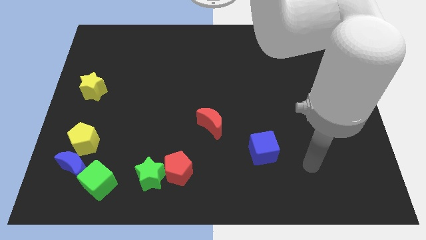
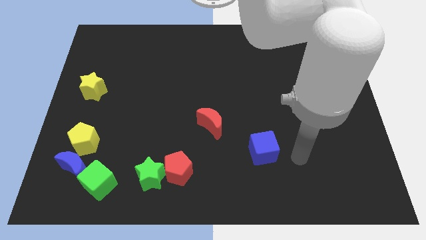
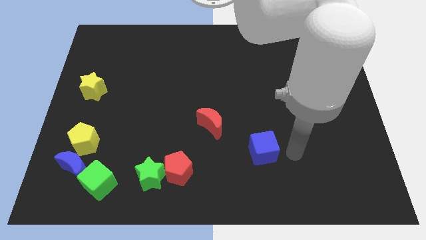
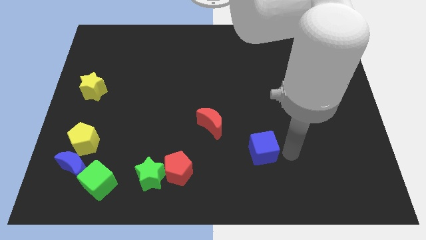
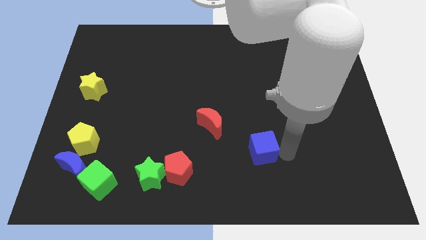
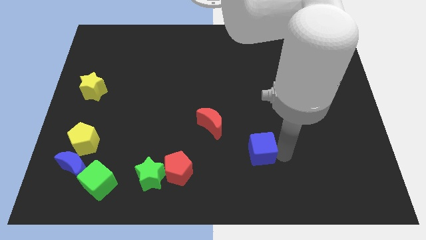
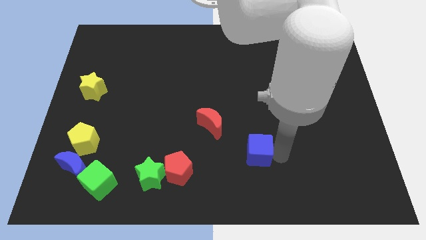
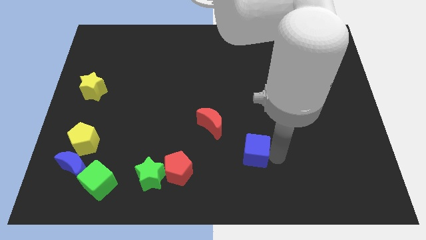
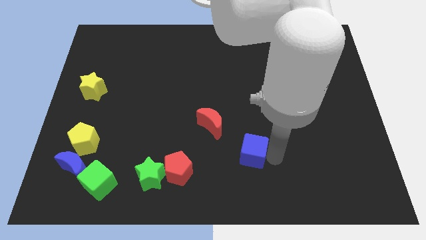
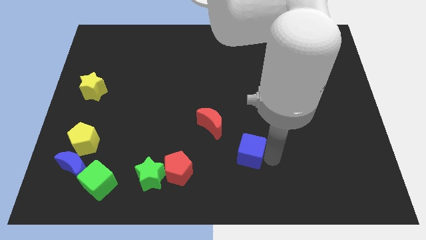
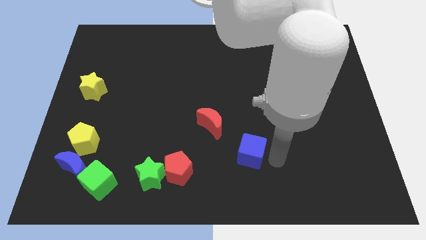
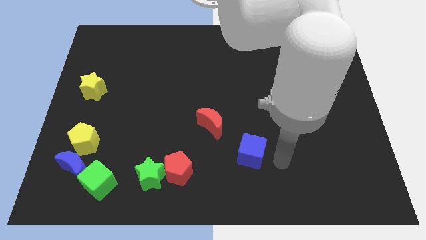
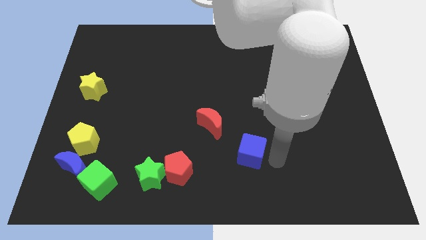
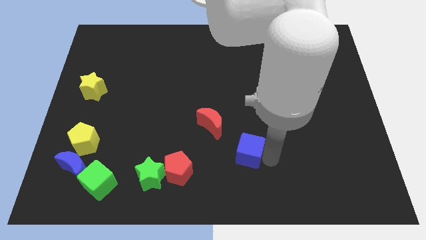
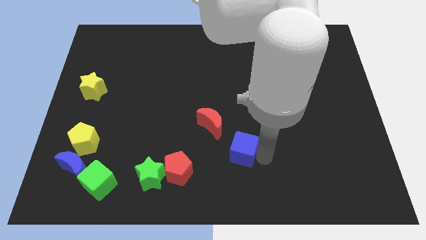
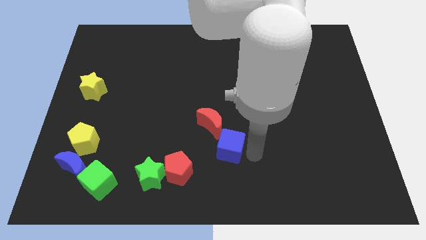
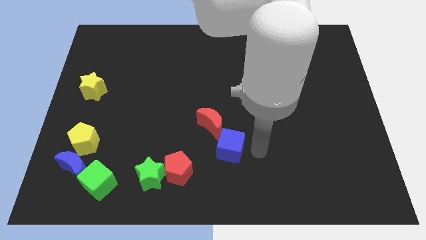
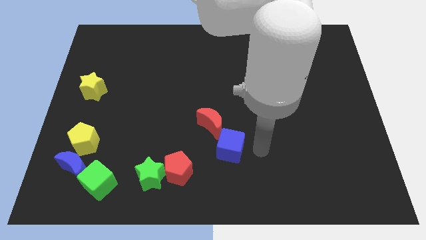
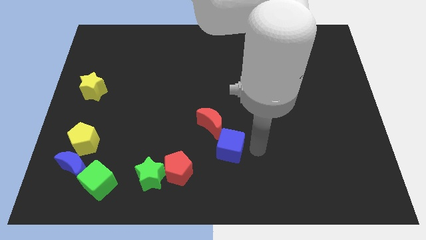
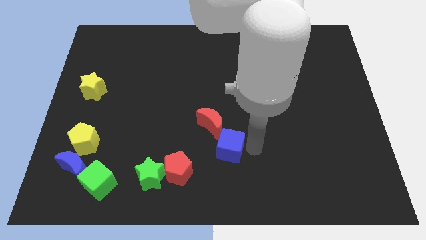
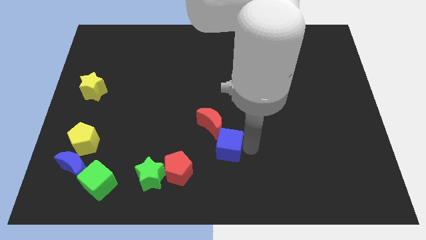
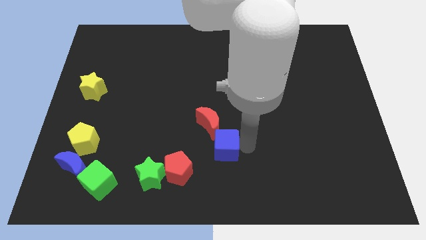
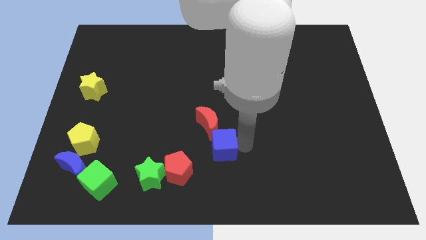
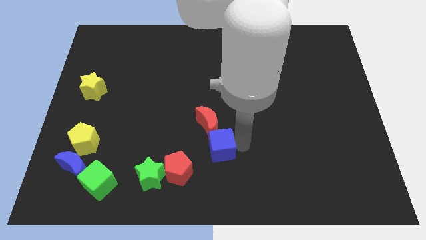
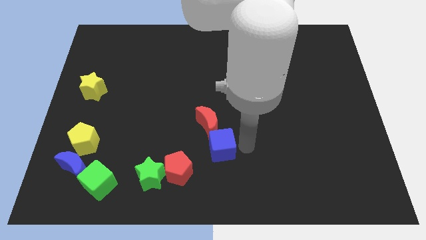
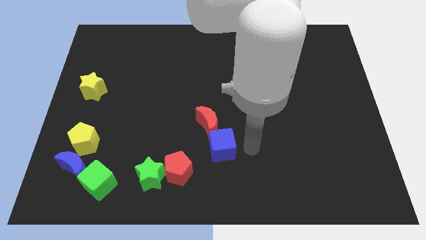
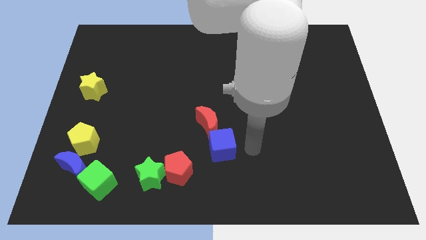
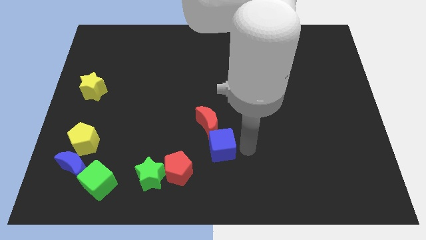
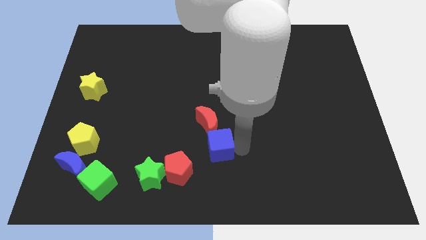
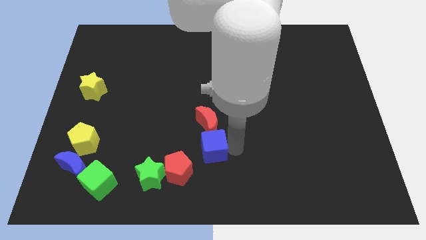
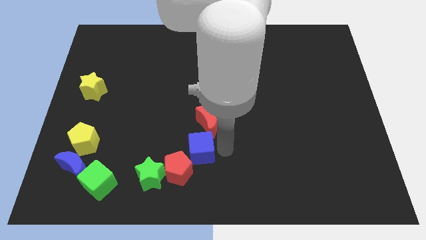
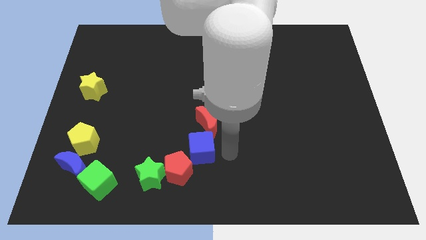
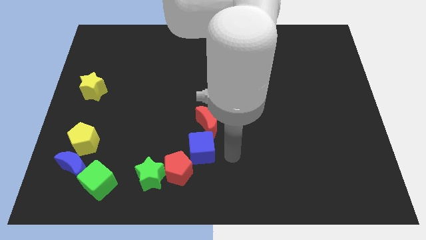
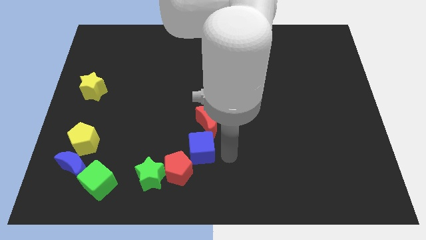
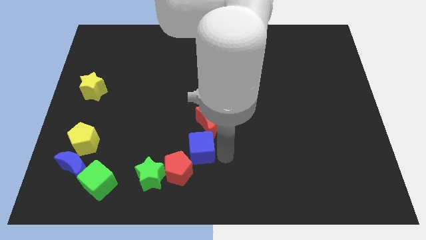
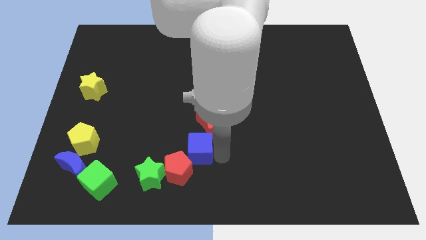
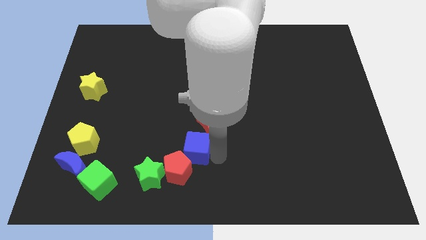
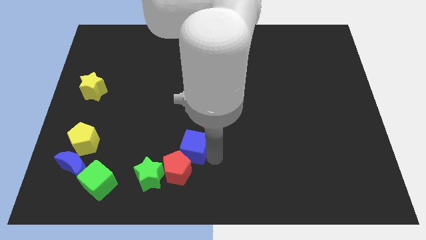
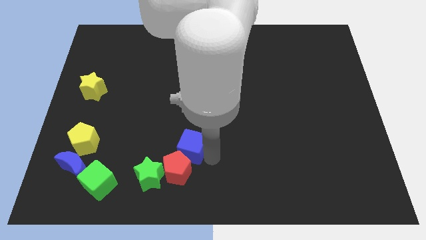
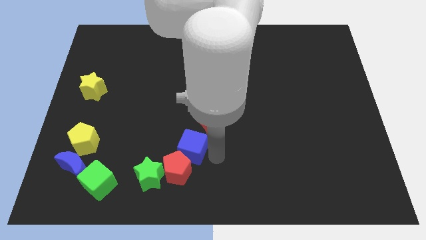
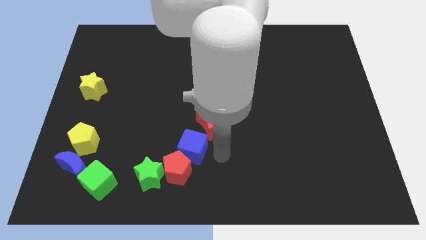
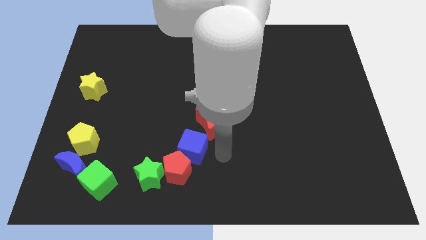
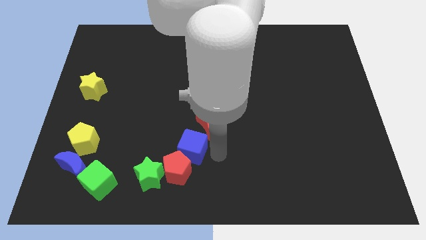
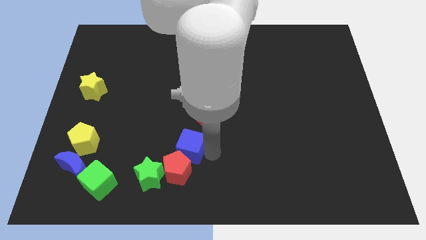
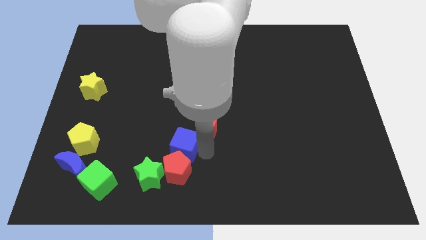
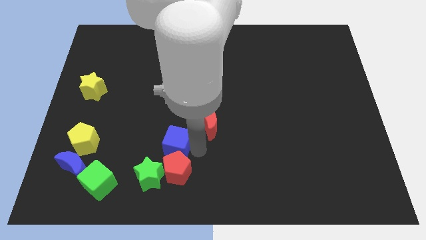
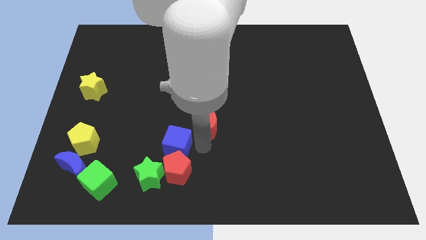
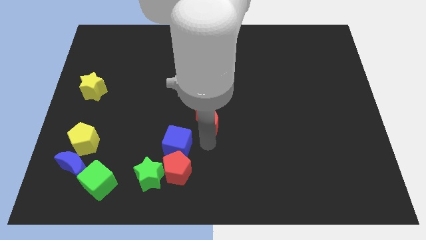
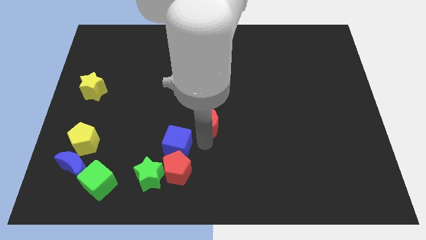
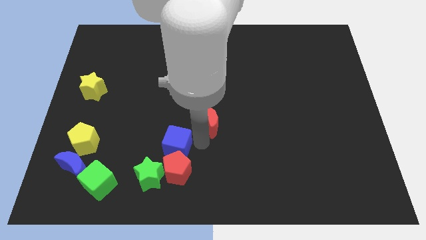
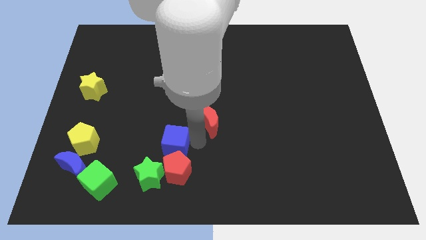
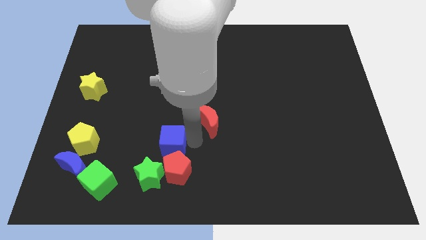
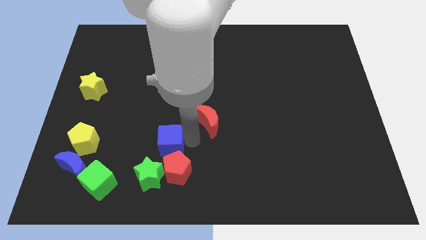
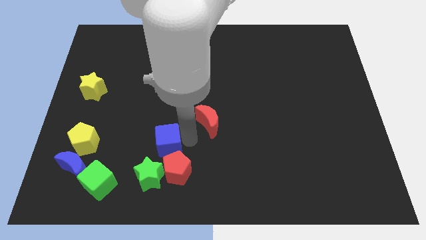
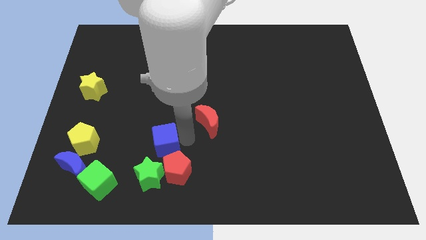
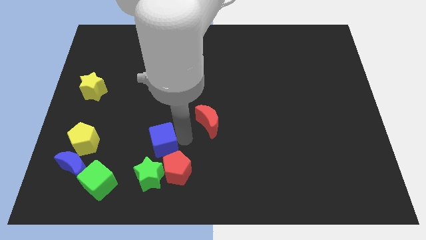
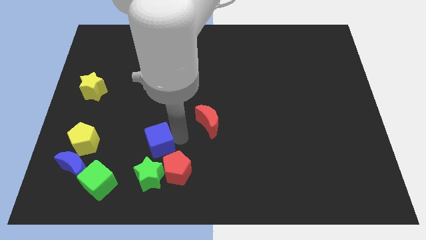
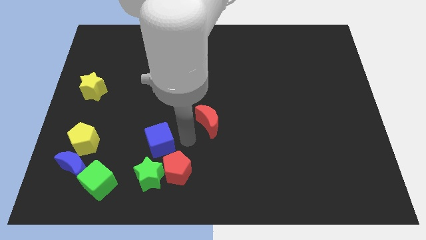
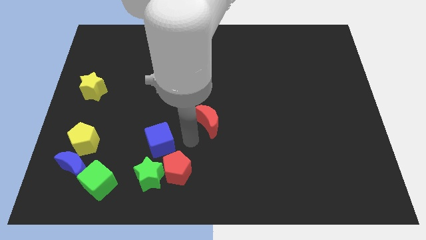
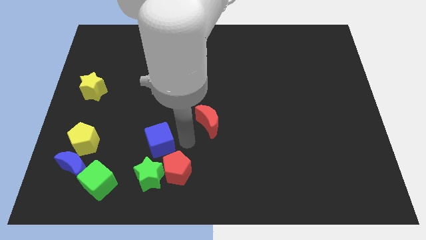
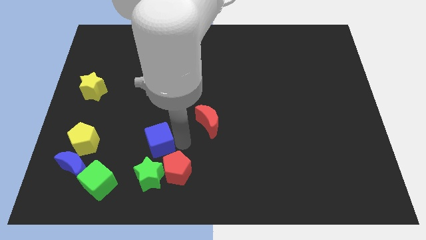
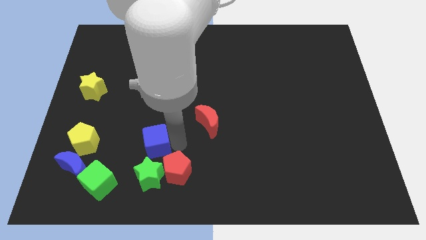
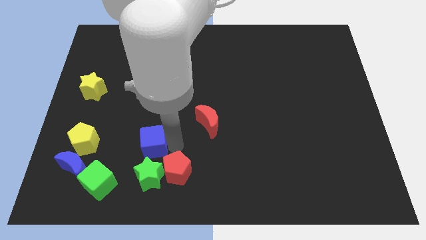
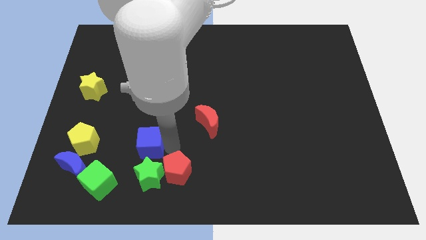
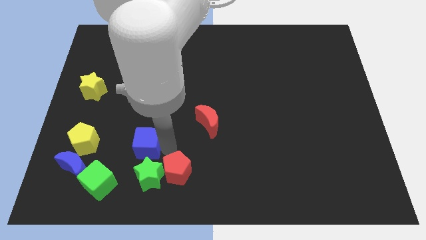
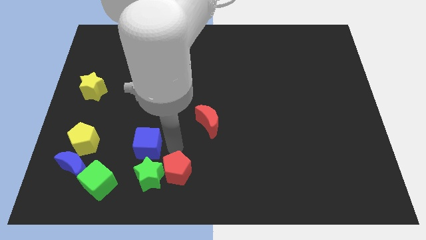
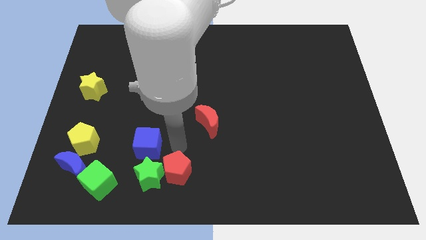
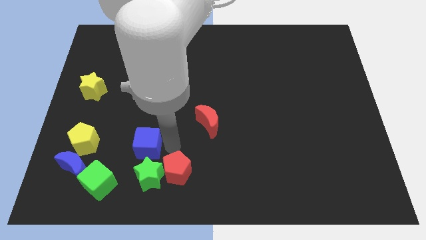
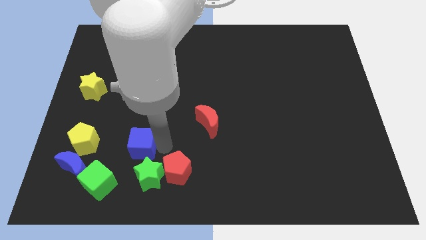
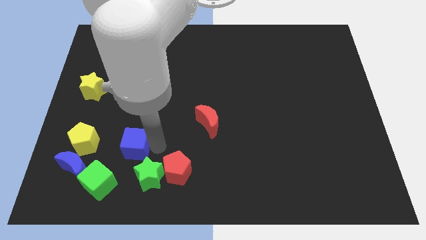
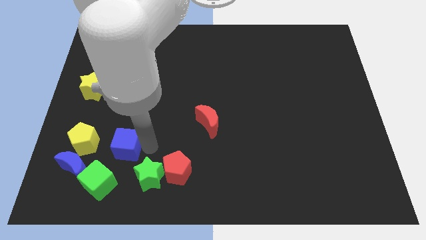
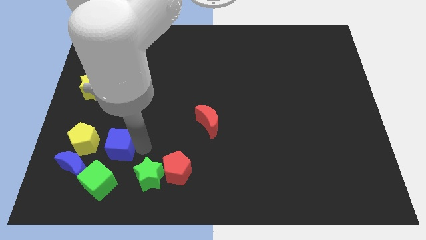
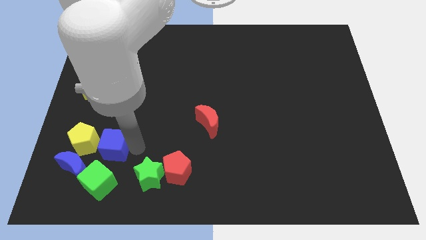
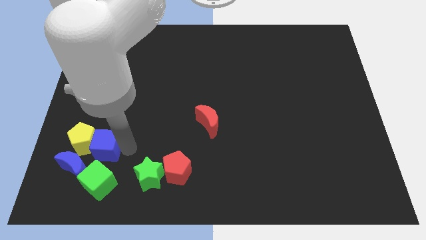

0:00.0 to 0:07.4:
push the blue cube towards the yellow pentagon
